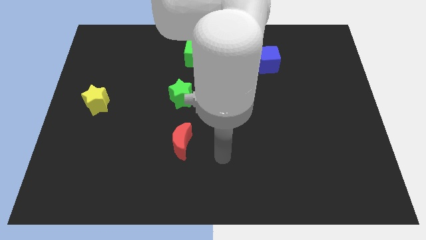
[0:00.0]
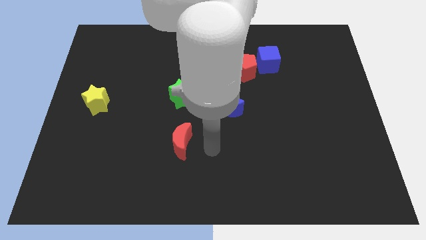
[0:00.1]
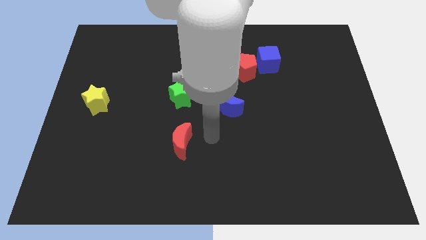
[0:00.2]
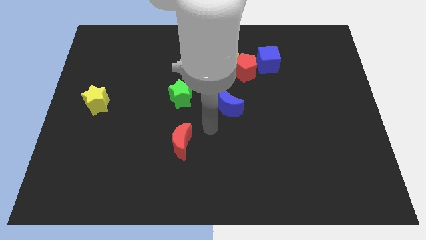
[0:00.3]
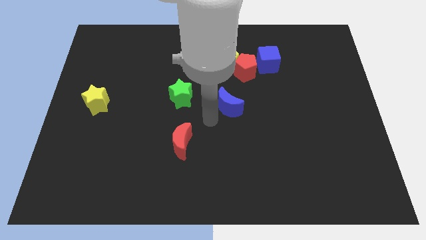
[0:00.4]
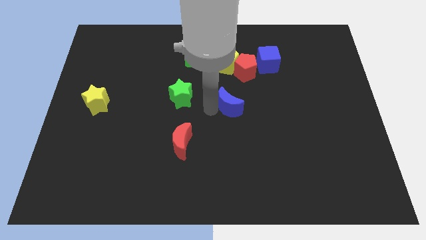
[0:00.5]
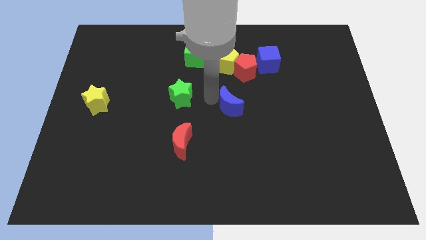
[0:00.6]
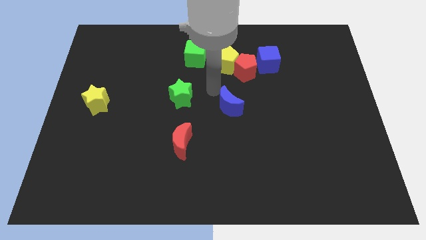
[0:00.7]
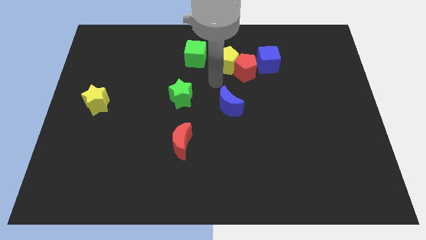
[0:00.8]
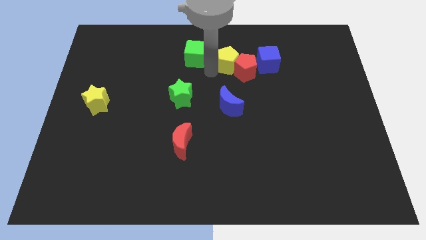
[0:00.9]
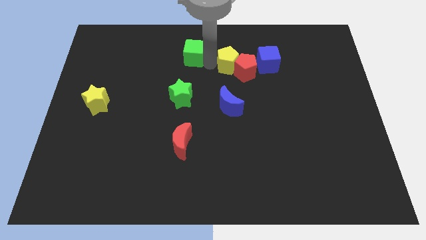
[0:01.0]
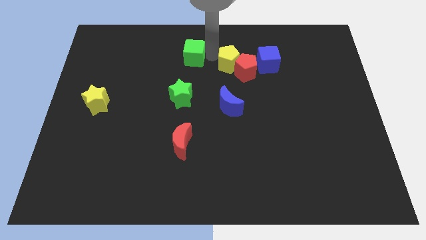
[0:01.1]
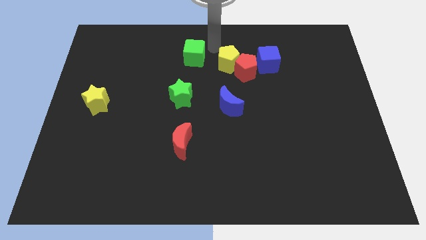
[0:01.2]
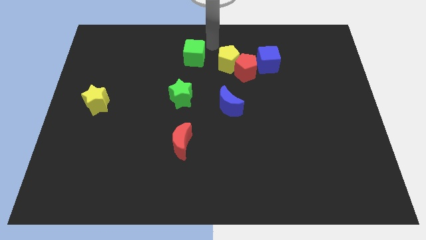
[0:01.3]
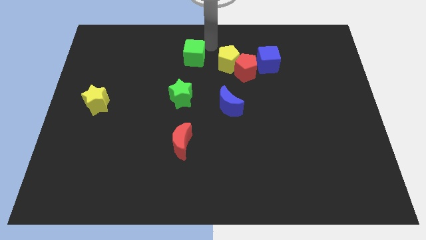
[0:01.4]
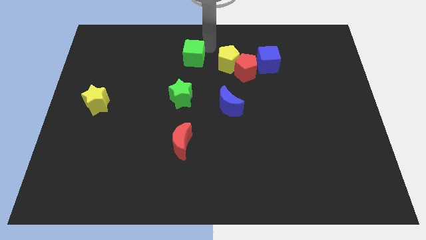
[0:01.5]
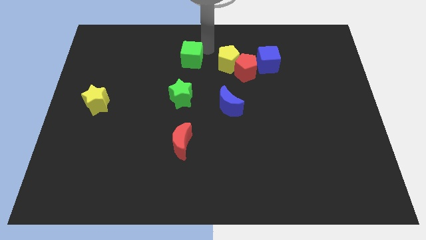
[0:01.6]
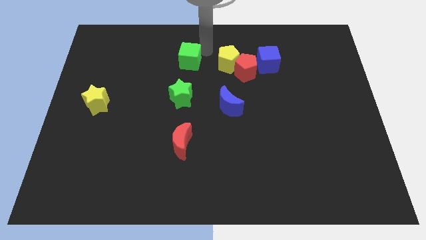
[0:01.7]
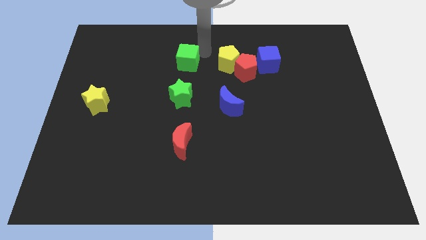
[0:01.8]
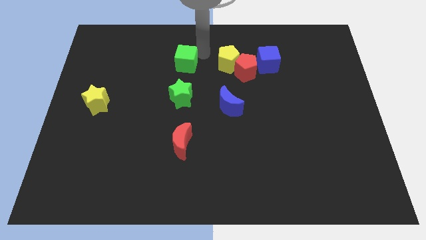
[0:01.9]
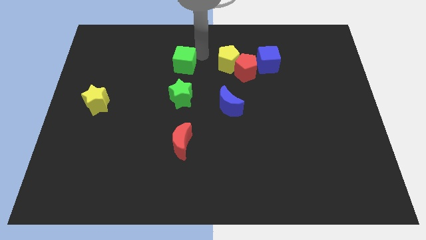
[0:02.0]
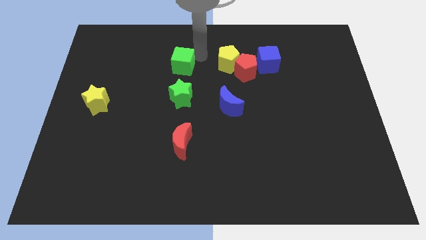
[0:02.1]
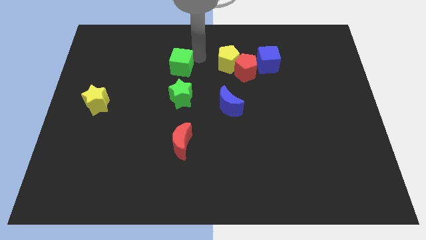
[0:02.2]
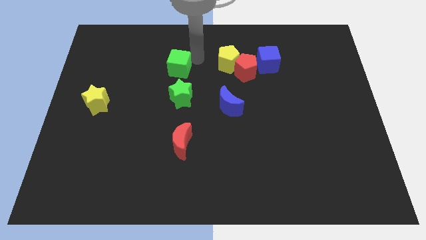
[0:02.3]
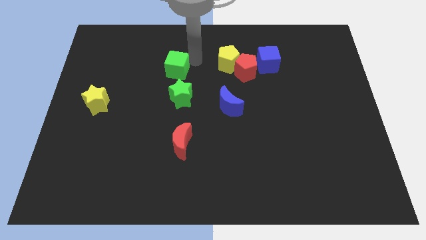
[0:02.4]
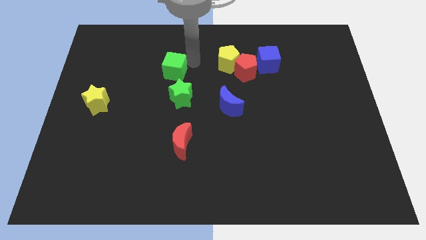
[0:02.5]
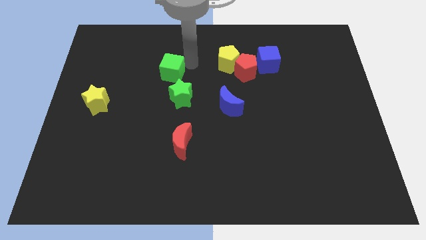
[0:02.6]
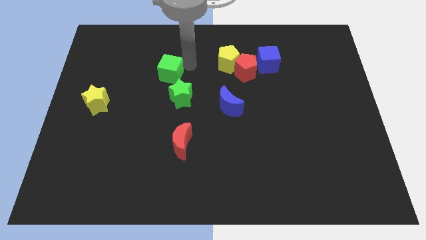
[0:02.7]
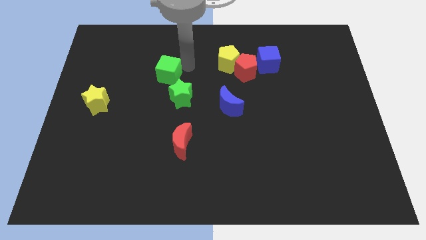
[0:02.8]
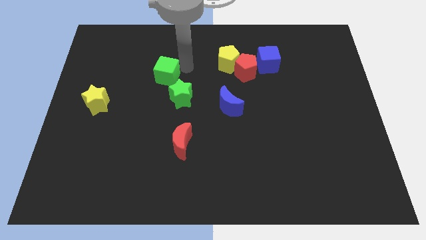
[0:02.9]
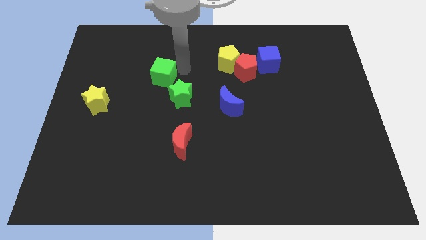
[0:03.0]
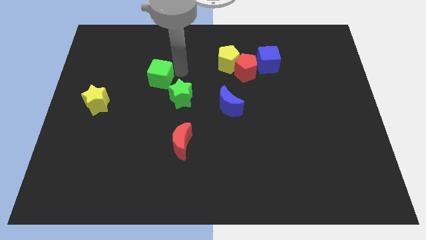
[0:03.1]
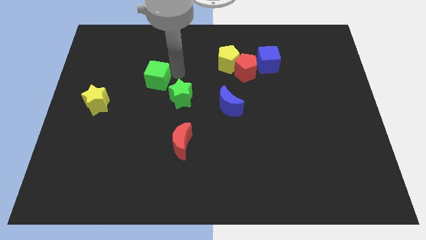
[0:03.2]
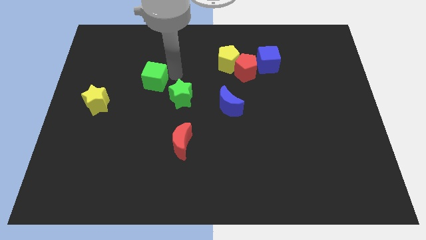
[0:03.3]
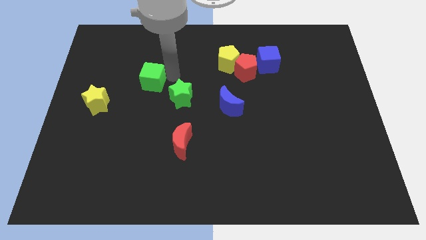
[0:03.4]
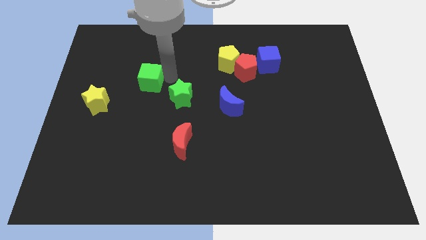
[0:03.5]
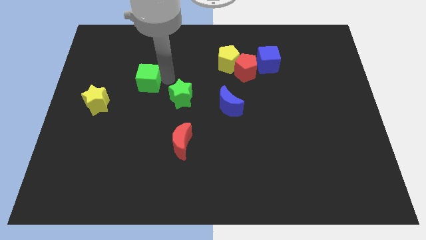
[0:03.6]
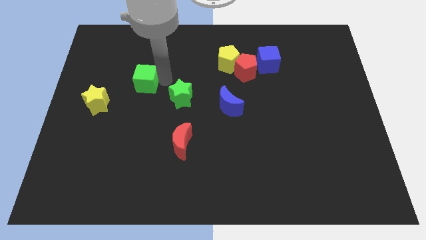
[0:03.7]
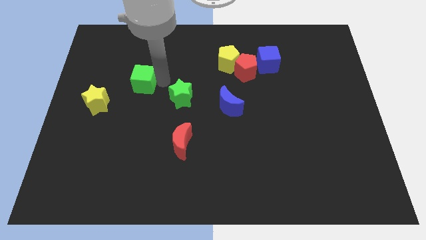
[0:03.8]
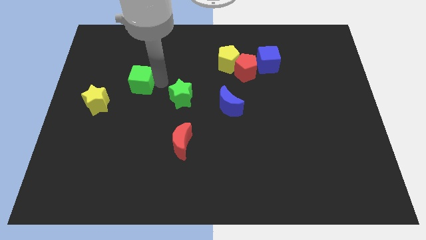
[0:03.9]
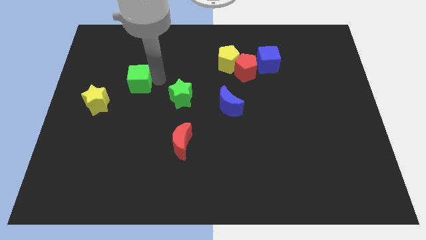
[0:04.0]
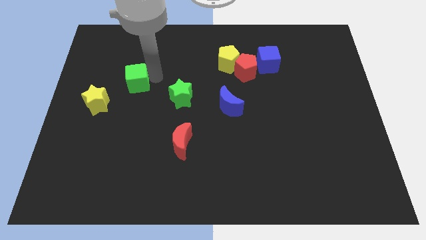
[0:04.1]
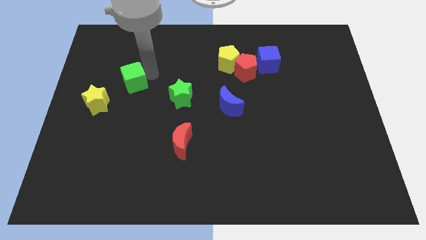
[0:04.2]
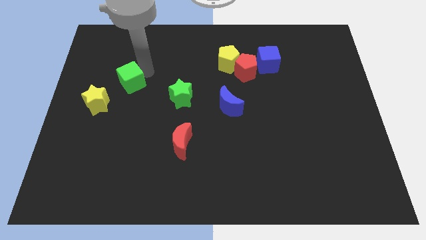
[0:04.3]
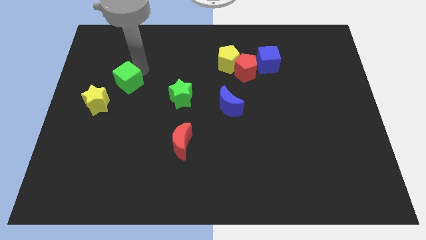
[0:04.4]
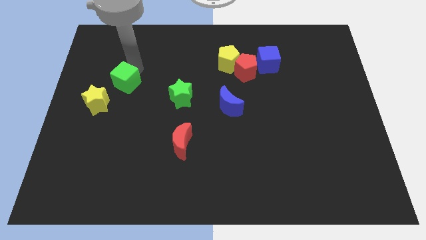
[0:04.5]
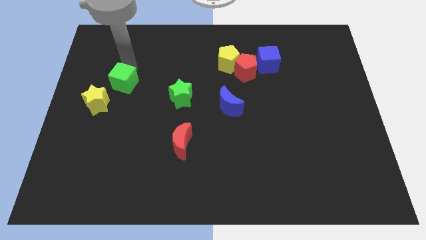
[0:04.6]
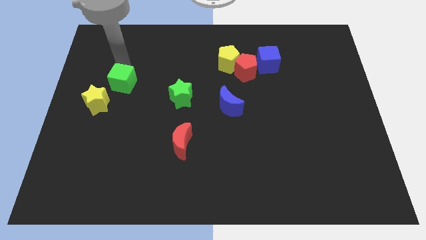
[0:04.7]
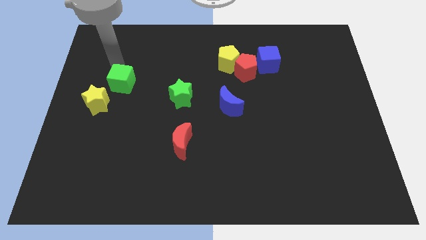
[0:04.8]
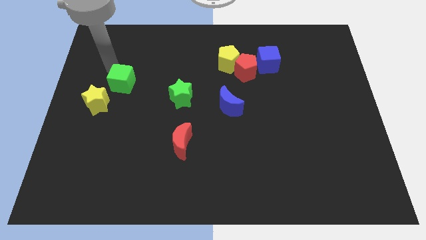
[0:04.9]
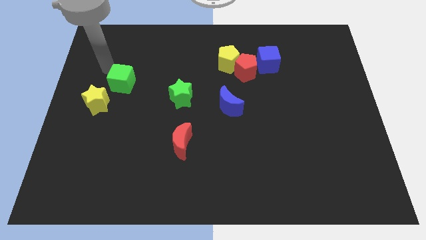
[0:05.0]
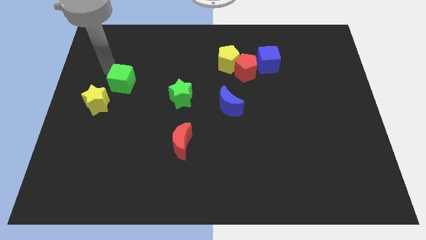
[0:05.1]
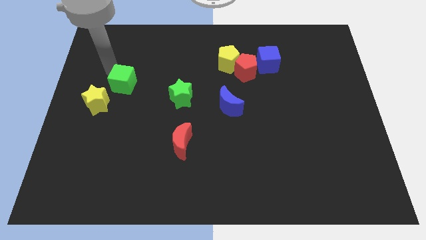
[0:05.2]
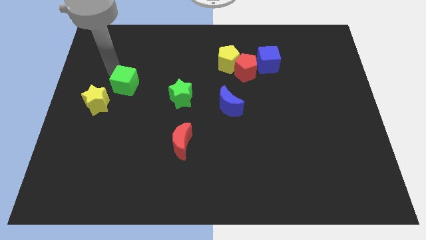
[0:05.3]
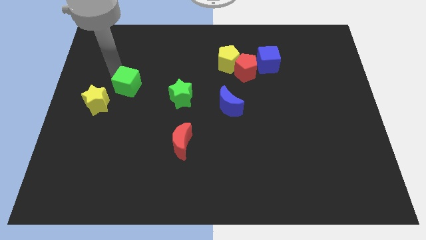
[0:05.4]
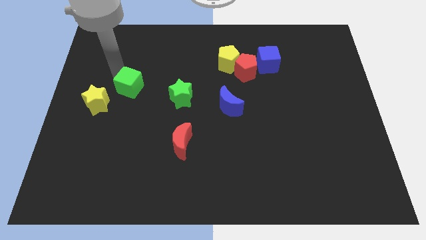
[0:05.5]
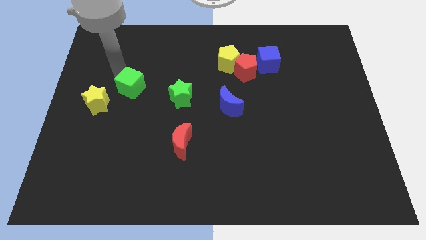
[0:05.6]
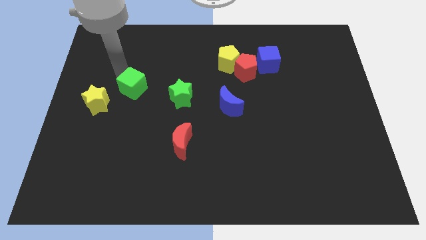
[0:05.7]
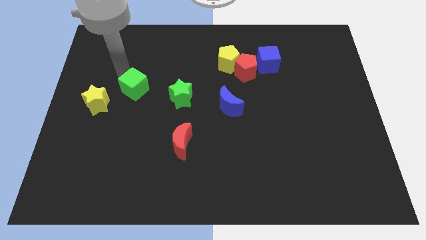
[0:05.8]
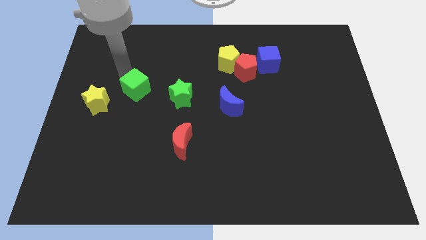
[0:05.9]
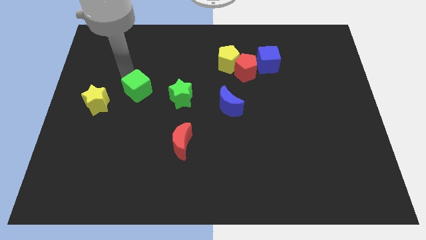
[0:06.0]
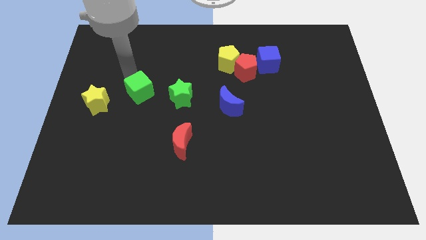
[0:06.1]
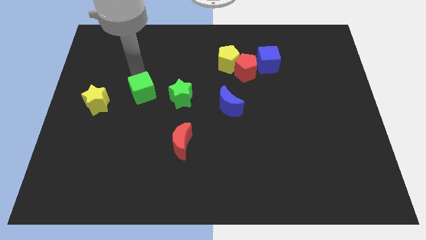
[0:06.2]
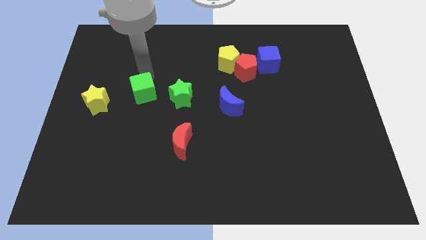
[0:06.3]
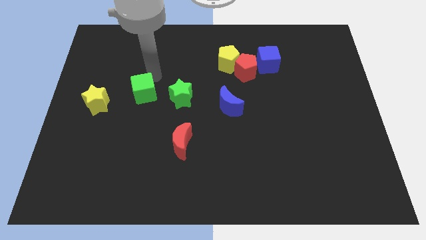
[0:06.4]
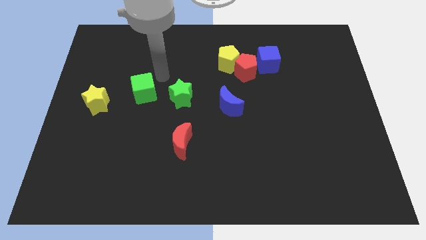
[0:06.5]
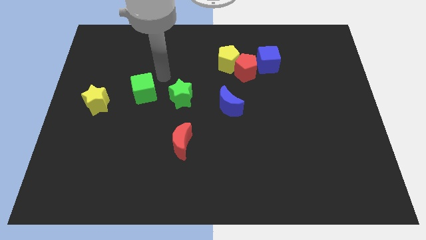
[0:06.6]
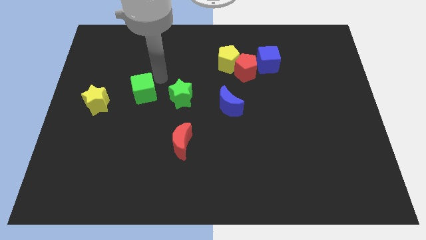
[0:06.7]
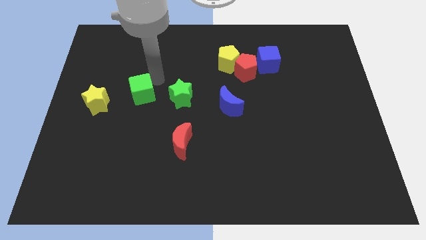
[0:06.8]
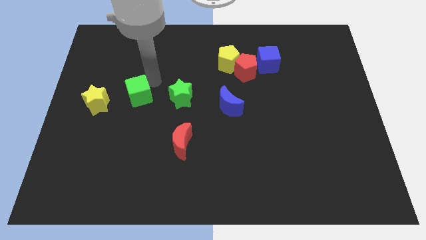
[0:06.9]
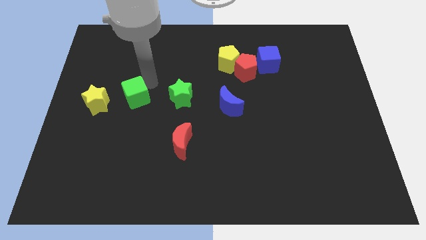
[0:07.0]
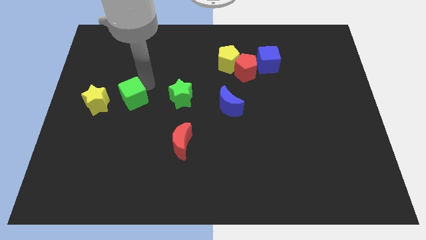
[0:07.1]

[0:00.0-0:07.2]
slide the green cube down and to the left

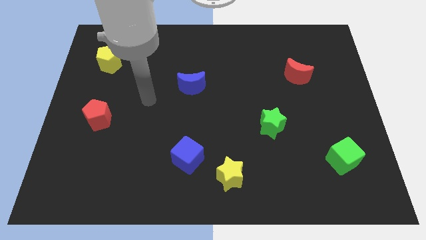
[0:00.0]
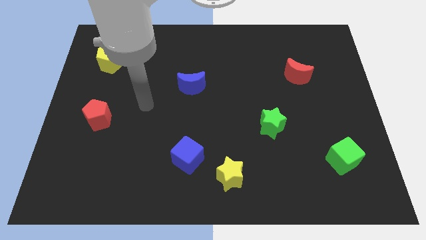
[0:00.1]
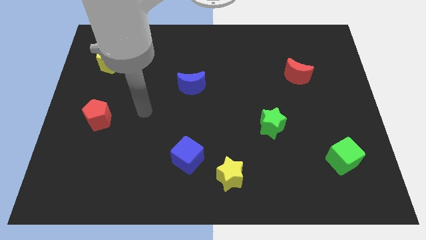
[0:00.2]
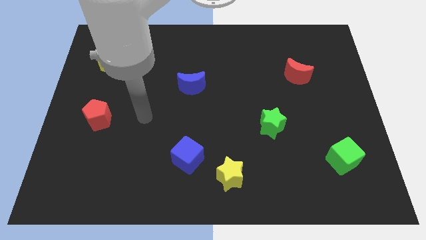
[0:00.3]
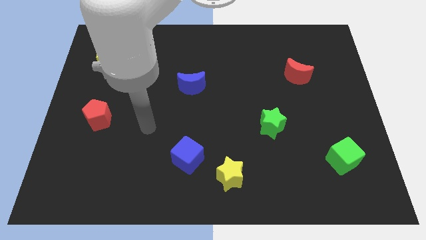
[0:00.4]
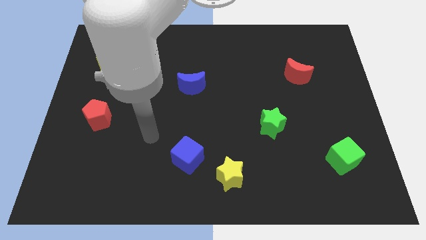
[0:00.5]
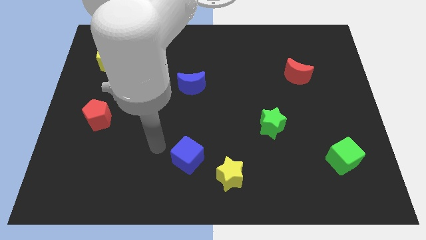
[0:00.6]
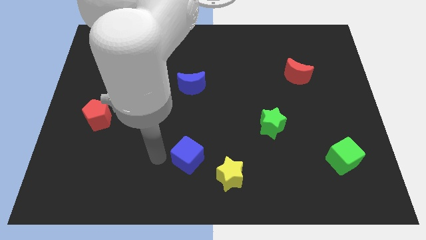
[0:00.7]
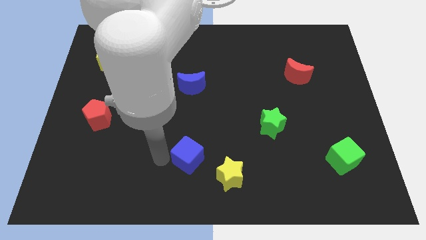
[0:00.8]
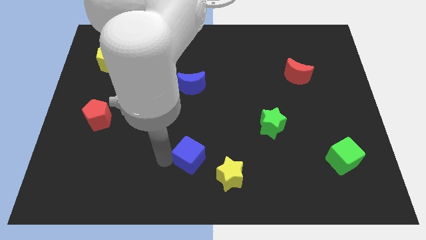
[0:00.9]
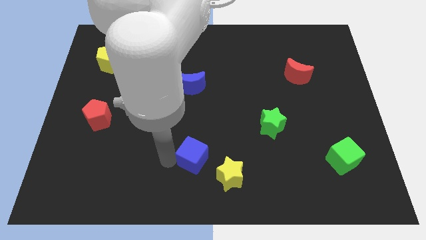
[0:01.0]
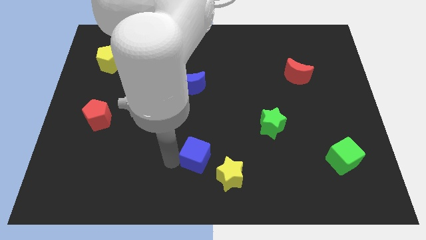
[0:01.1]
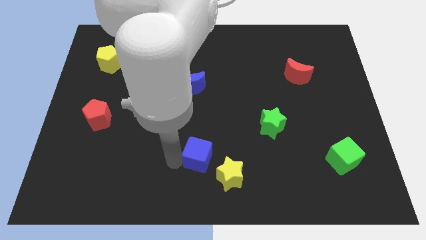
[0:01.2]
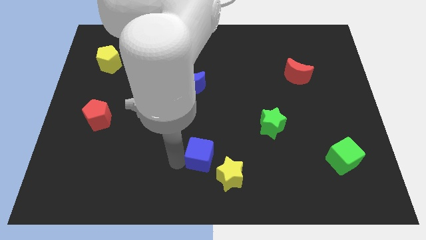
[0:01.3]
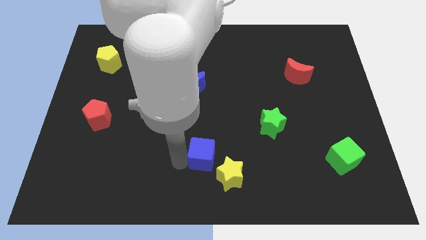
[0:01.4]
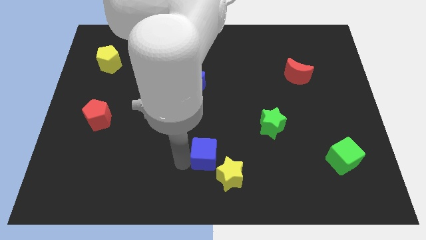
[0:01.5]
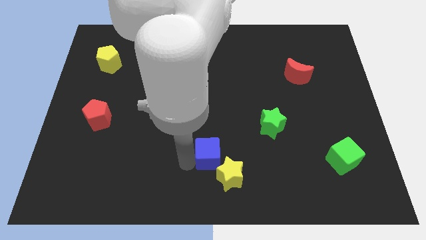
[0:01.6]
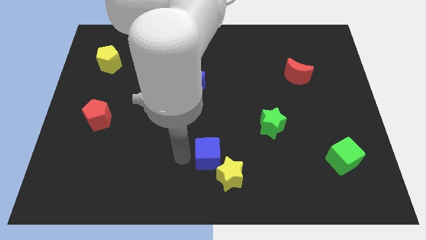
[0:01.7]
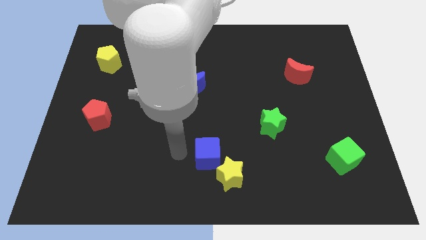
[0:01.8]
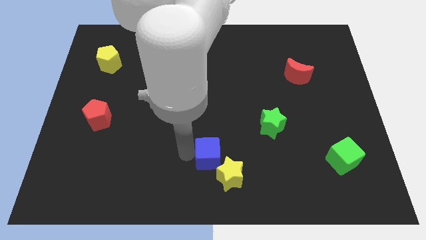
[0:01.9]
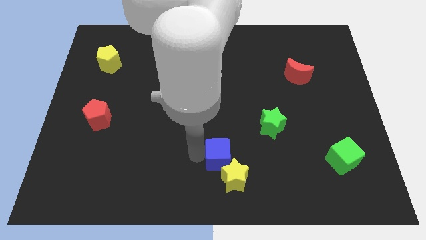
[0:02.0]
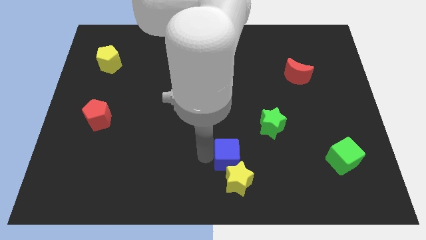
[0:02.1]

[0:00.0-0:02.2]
push the blue cube right somewhat
